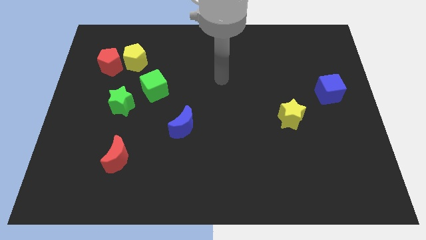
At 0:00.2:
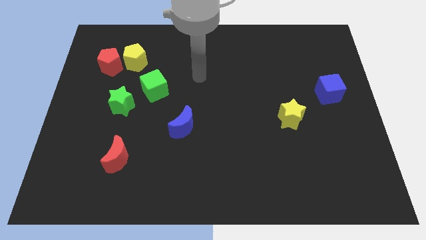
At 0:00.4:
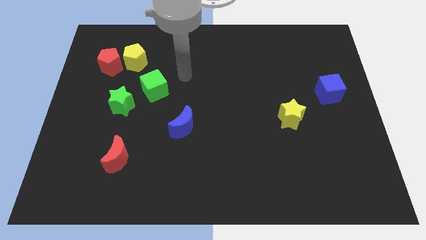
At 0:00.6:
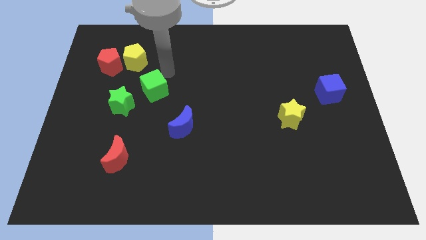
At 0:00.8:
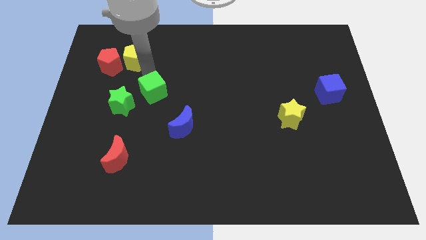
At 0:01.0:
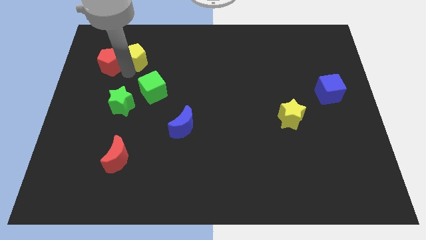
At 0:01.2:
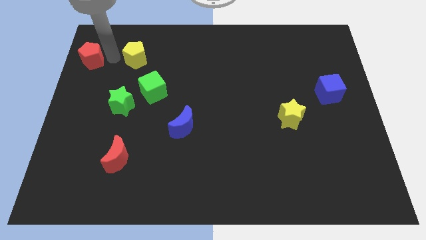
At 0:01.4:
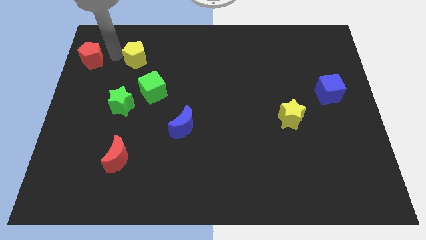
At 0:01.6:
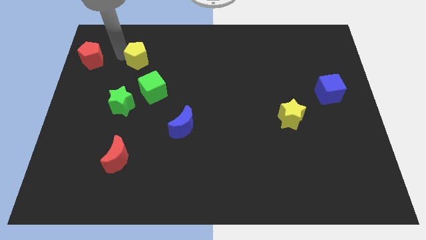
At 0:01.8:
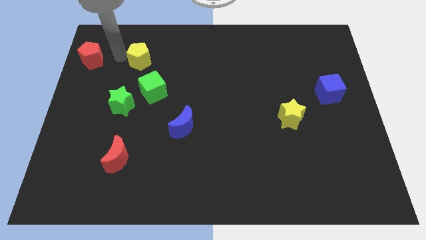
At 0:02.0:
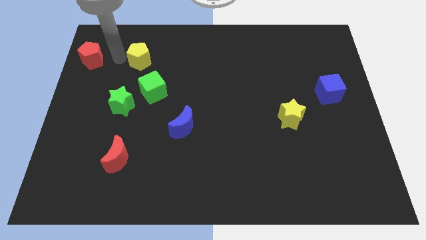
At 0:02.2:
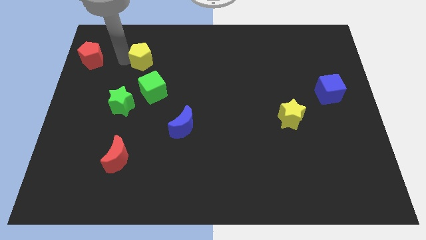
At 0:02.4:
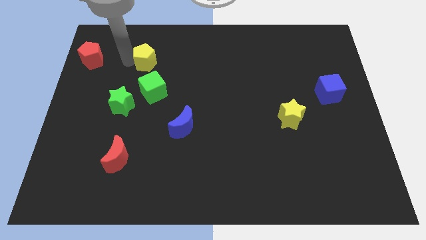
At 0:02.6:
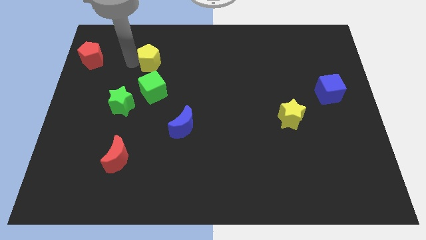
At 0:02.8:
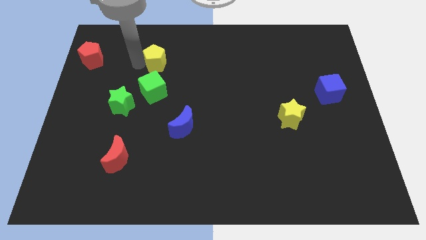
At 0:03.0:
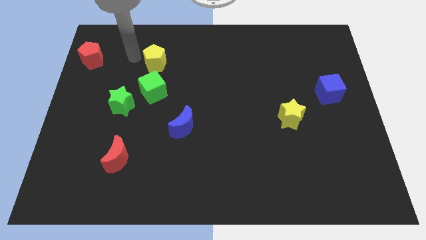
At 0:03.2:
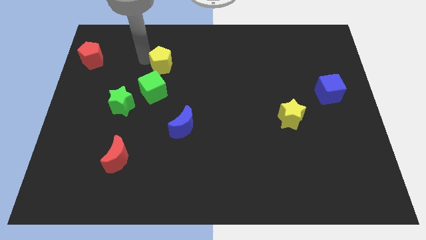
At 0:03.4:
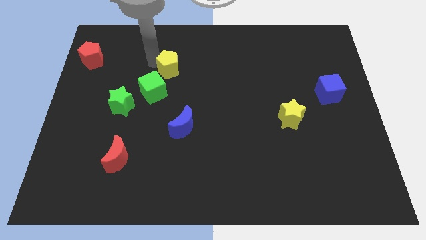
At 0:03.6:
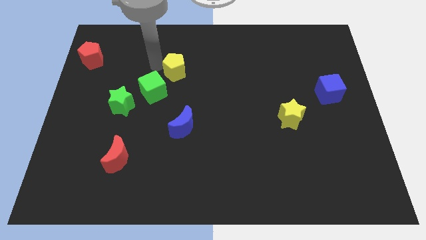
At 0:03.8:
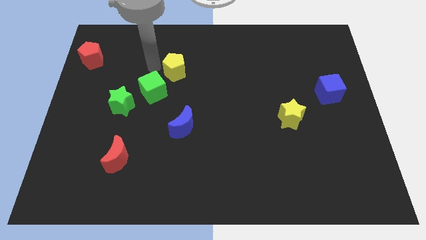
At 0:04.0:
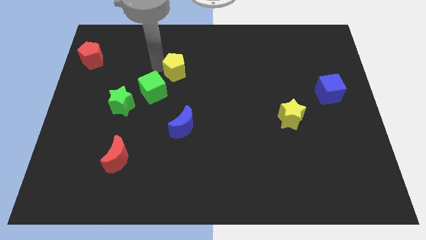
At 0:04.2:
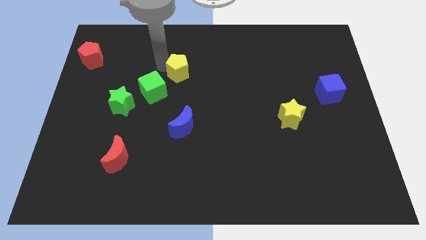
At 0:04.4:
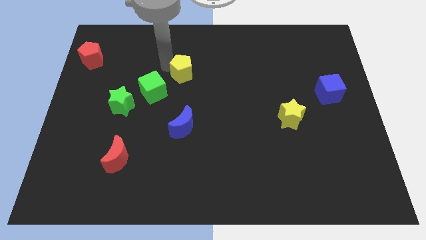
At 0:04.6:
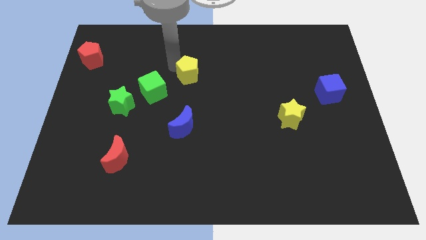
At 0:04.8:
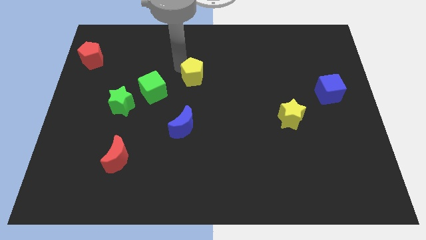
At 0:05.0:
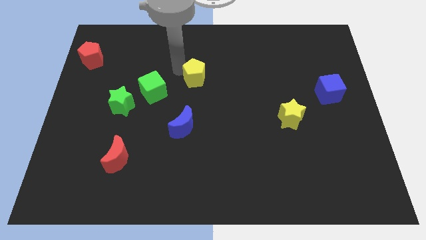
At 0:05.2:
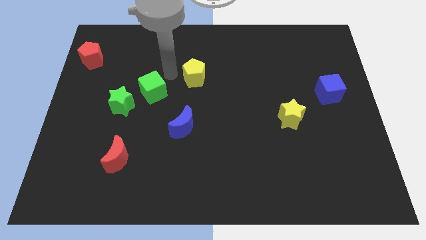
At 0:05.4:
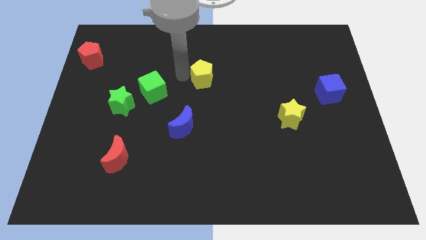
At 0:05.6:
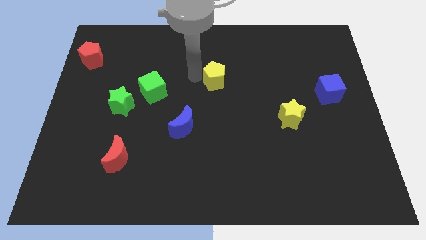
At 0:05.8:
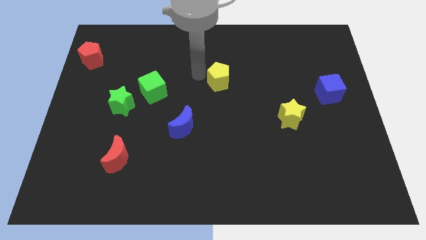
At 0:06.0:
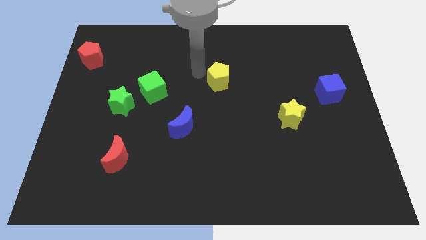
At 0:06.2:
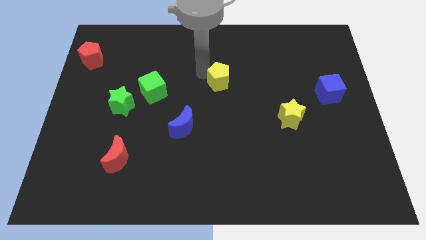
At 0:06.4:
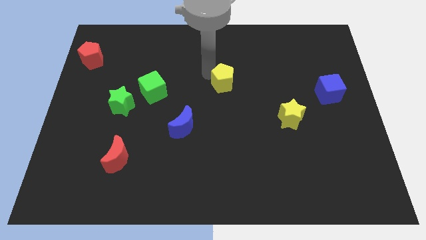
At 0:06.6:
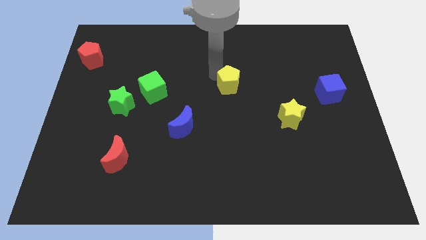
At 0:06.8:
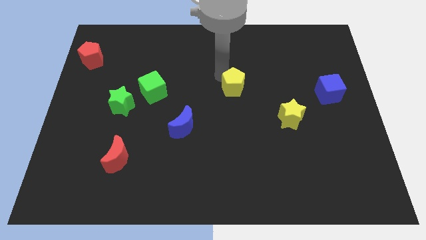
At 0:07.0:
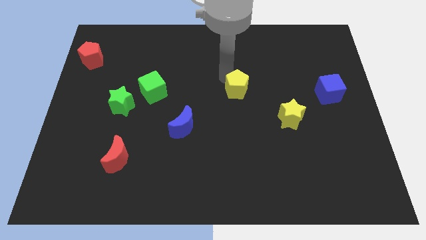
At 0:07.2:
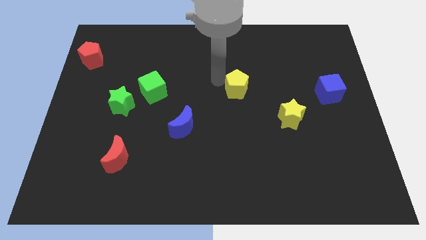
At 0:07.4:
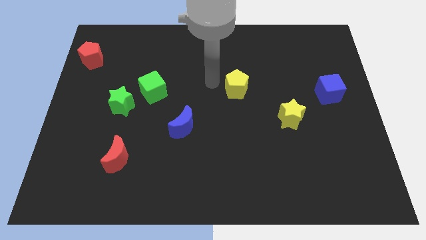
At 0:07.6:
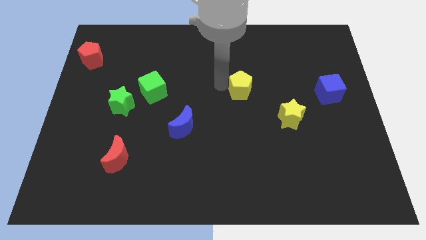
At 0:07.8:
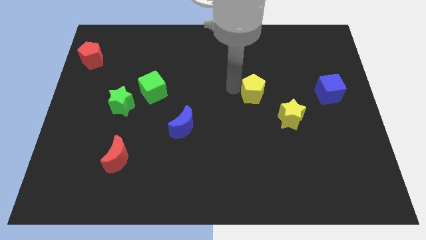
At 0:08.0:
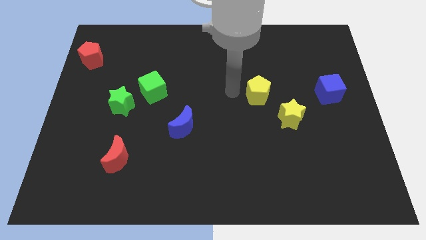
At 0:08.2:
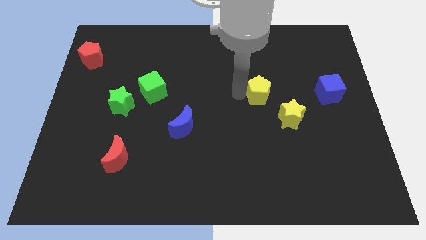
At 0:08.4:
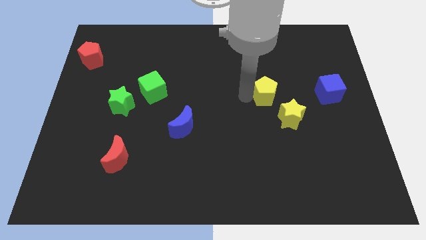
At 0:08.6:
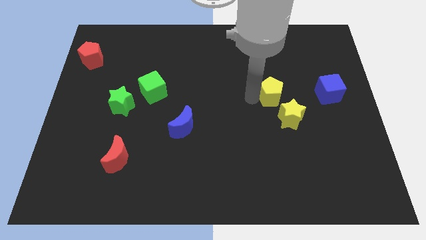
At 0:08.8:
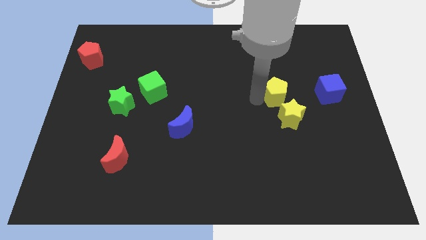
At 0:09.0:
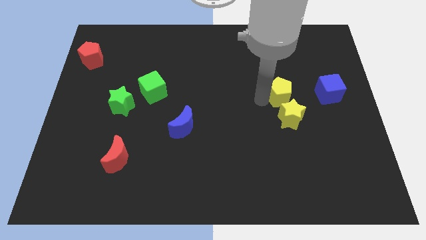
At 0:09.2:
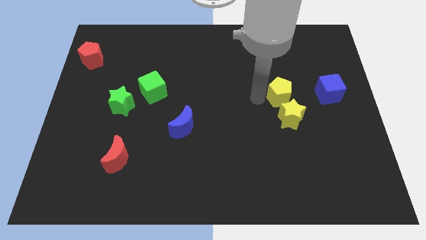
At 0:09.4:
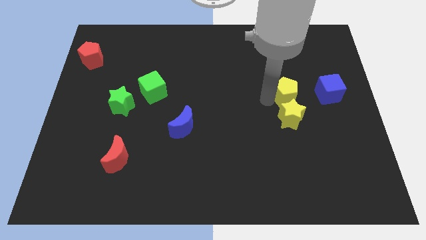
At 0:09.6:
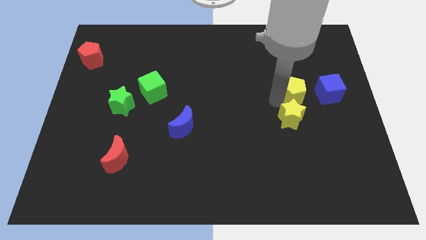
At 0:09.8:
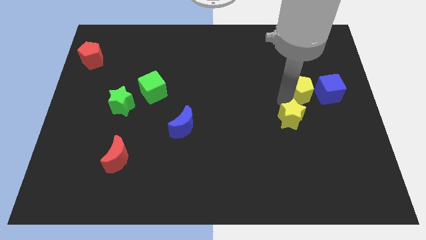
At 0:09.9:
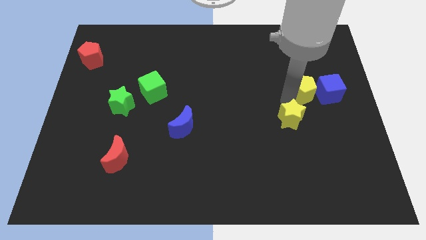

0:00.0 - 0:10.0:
slide the yellow pentagon towards the blue cube

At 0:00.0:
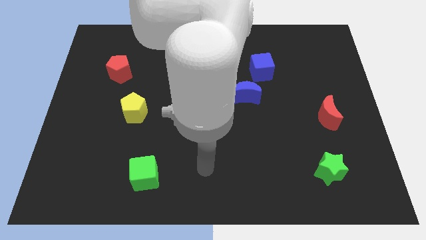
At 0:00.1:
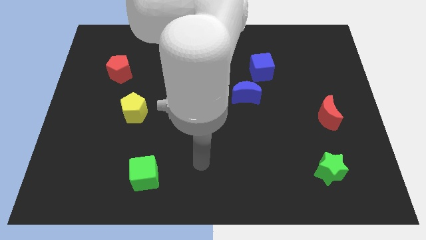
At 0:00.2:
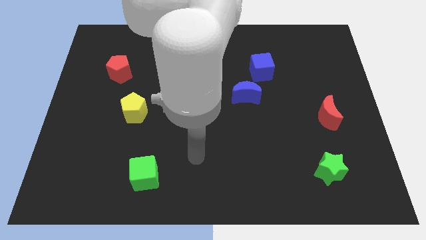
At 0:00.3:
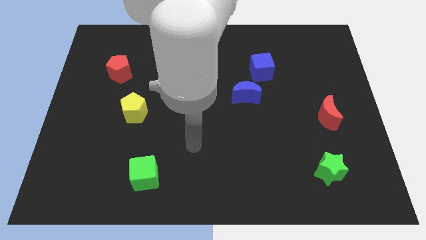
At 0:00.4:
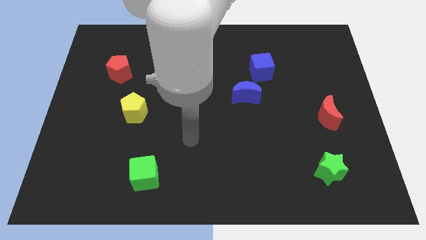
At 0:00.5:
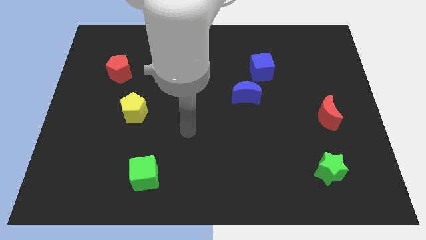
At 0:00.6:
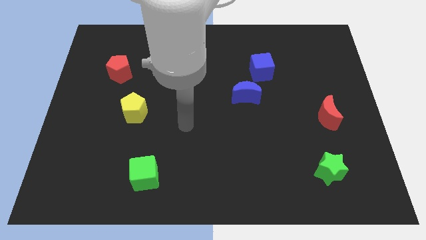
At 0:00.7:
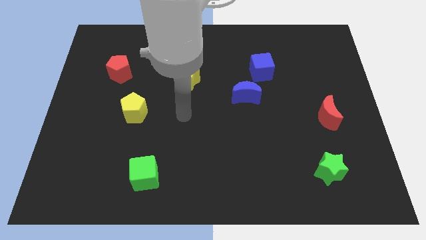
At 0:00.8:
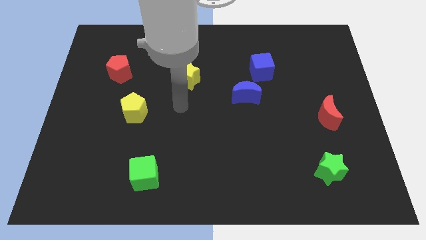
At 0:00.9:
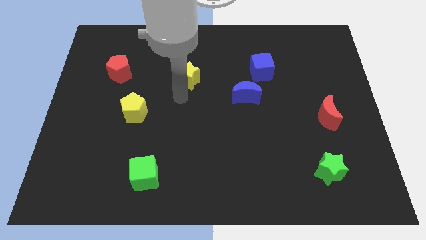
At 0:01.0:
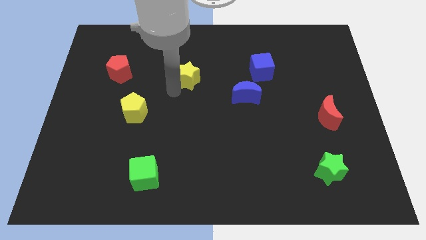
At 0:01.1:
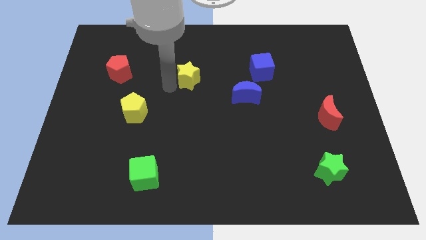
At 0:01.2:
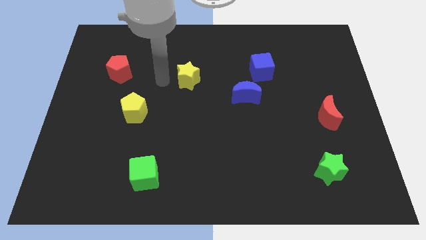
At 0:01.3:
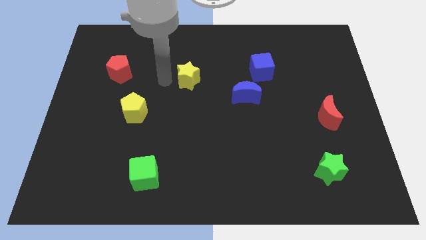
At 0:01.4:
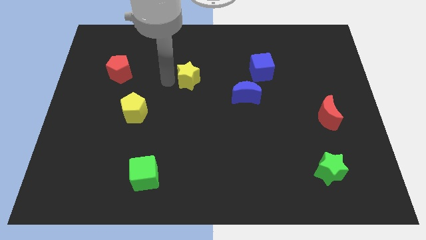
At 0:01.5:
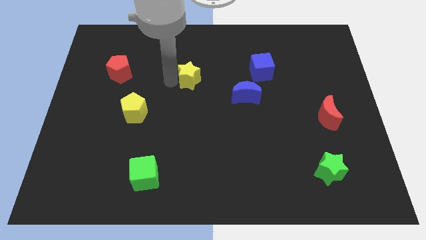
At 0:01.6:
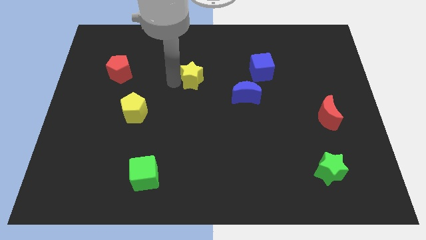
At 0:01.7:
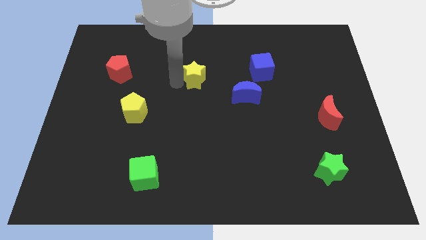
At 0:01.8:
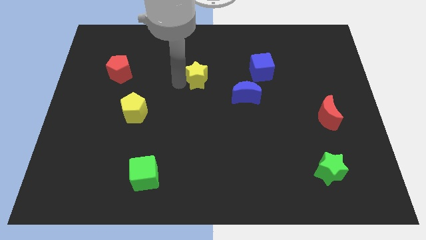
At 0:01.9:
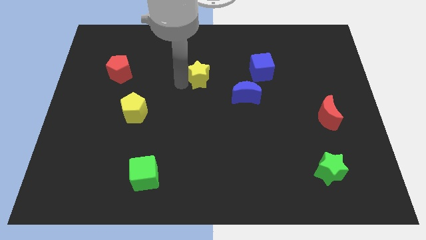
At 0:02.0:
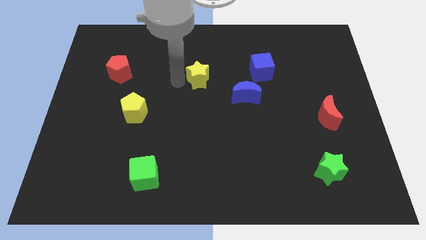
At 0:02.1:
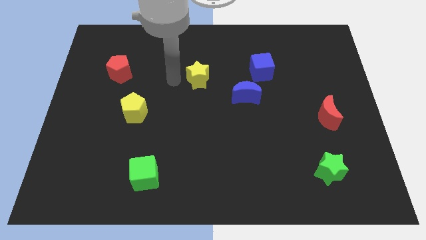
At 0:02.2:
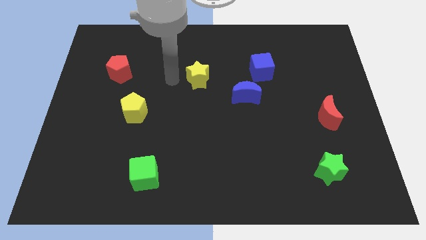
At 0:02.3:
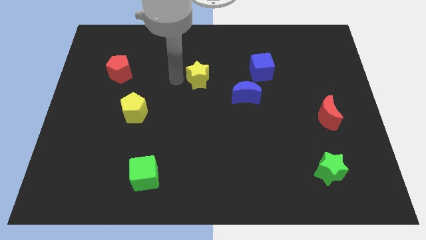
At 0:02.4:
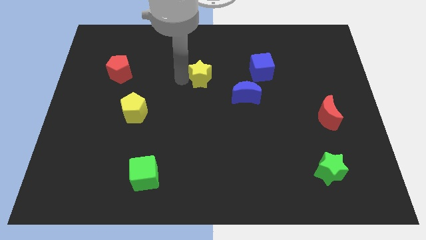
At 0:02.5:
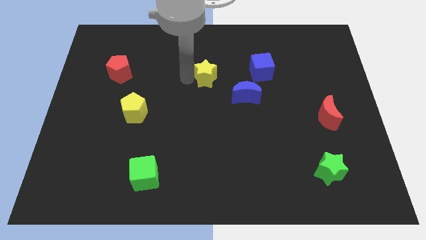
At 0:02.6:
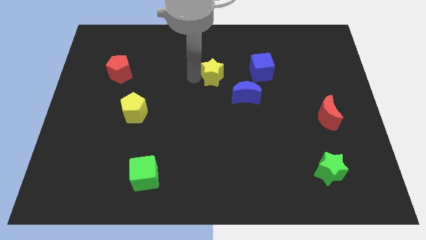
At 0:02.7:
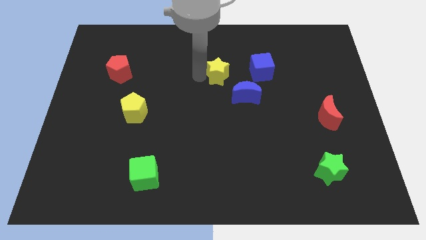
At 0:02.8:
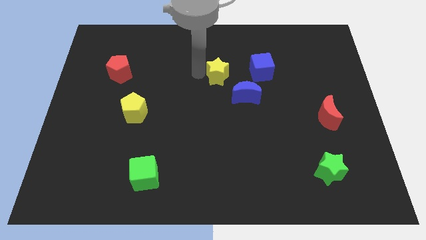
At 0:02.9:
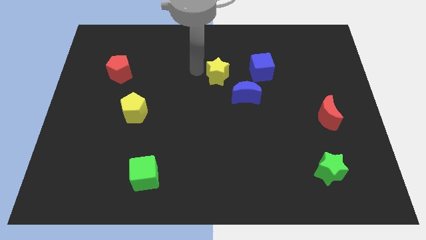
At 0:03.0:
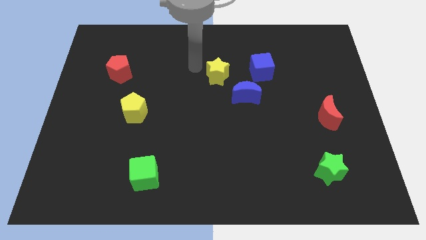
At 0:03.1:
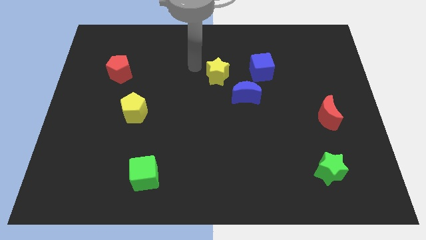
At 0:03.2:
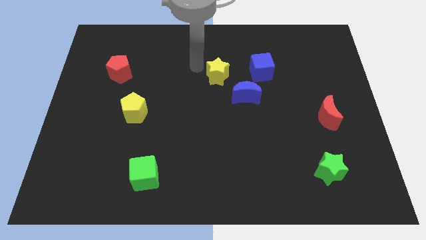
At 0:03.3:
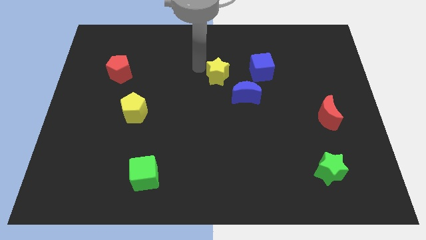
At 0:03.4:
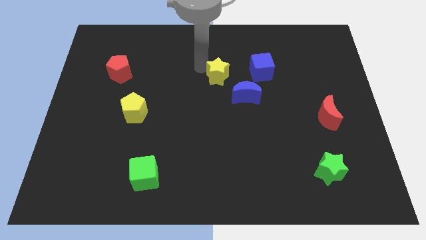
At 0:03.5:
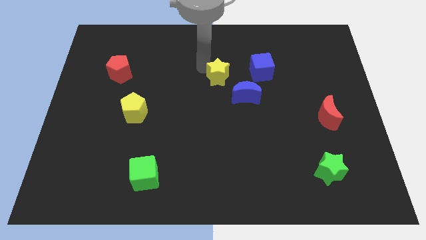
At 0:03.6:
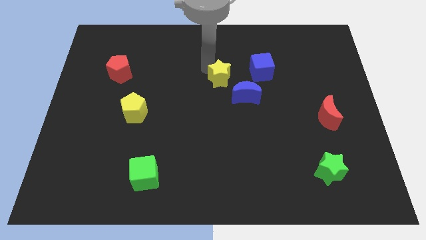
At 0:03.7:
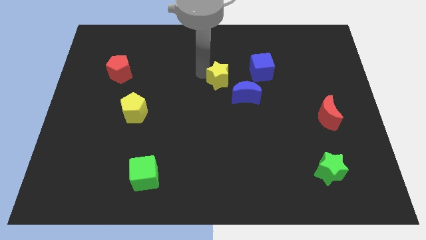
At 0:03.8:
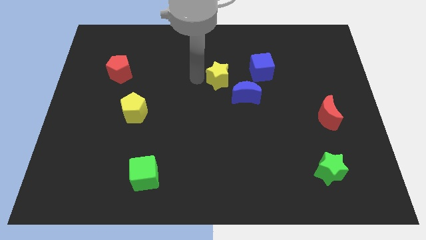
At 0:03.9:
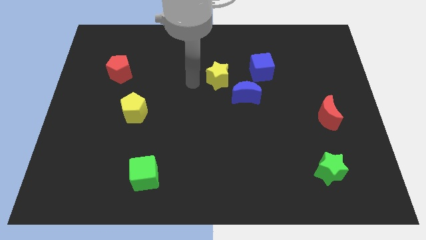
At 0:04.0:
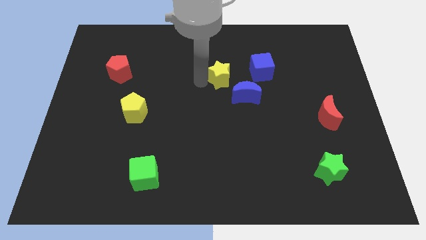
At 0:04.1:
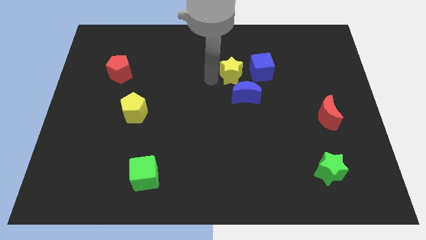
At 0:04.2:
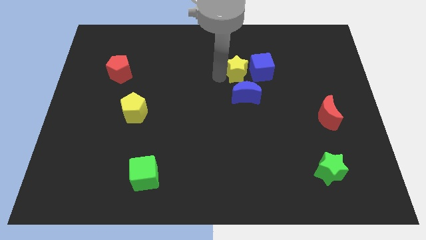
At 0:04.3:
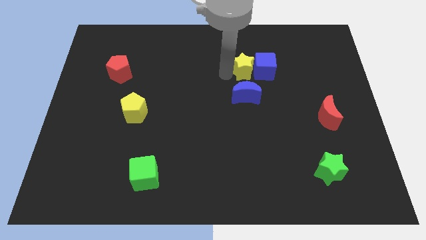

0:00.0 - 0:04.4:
move the yellow star towards the blue cube
